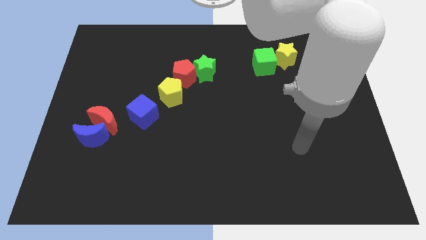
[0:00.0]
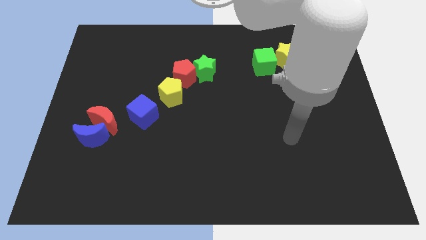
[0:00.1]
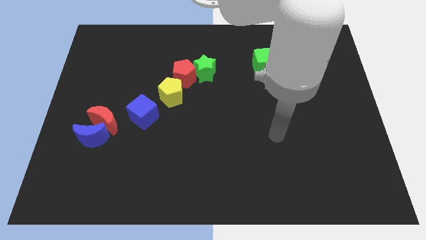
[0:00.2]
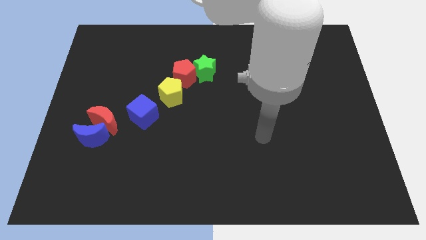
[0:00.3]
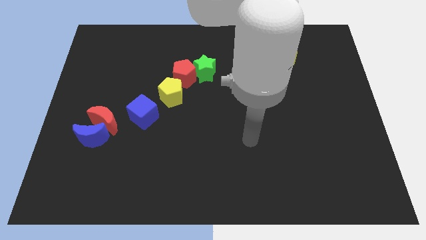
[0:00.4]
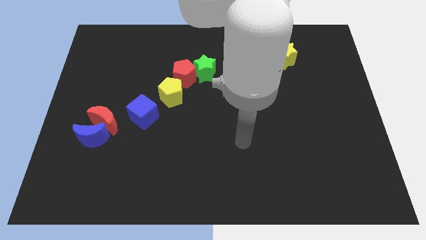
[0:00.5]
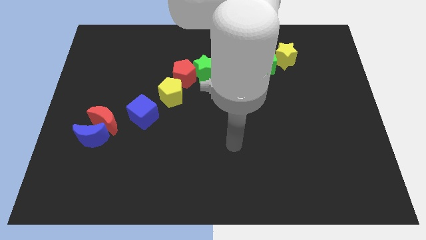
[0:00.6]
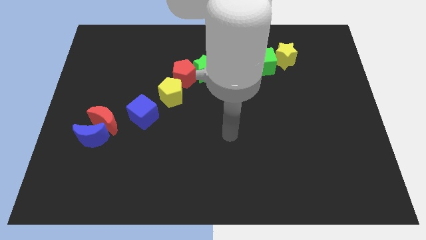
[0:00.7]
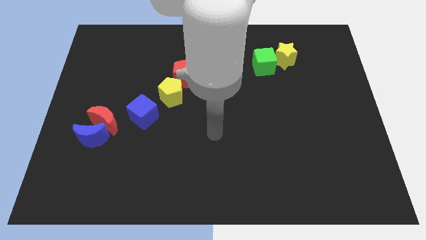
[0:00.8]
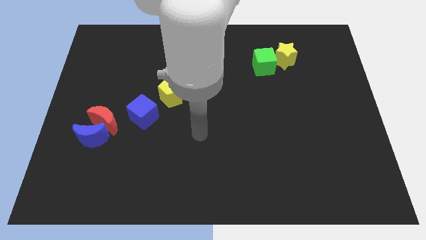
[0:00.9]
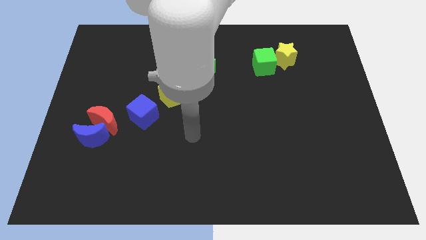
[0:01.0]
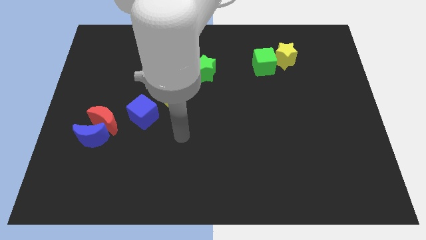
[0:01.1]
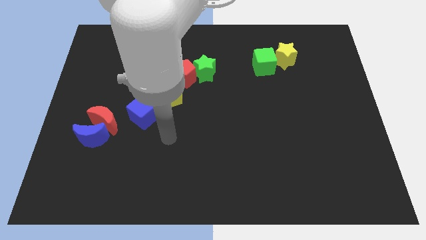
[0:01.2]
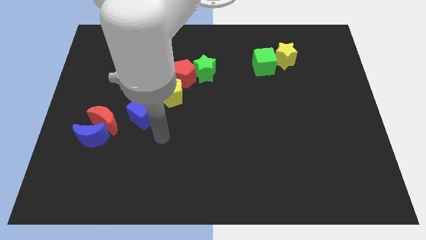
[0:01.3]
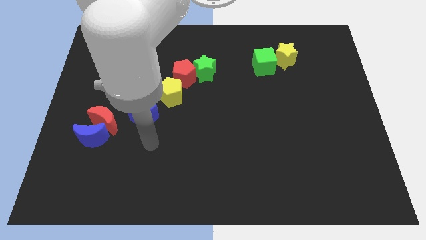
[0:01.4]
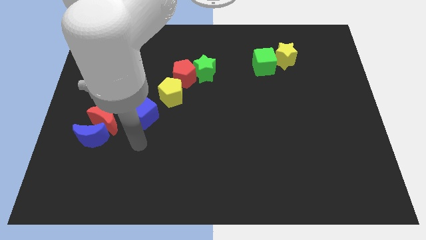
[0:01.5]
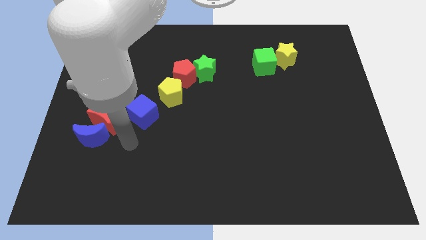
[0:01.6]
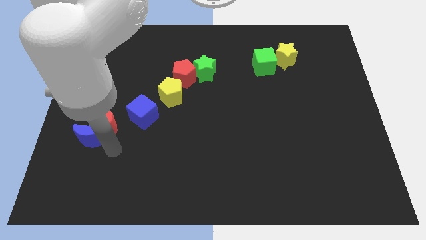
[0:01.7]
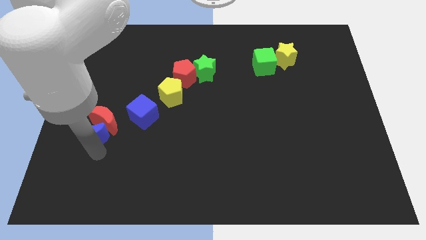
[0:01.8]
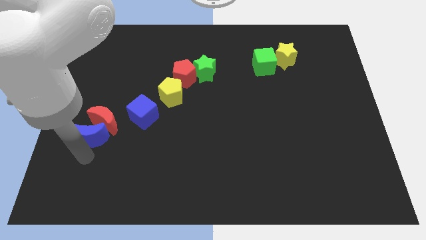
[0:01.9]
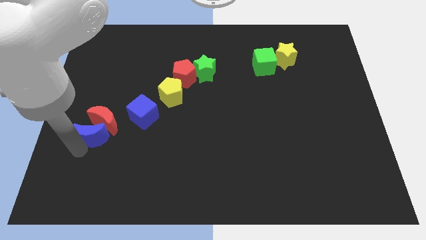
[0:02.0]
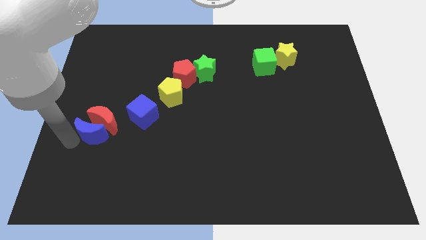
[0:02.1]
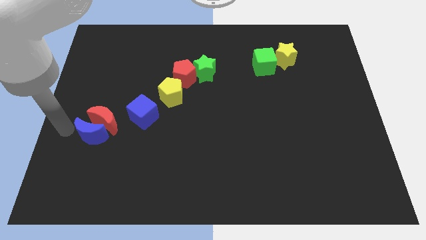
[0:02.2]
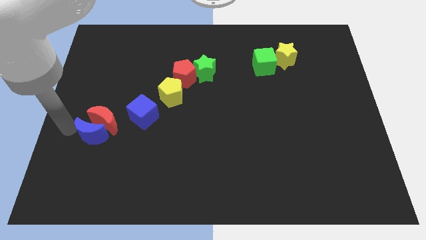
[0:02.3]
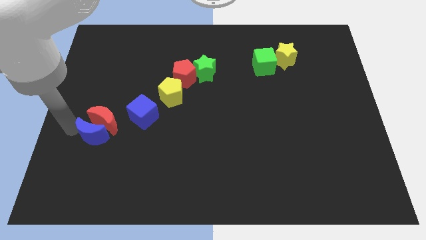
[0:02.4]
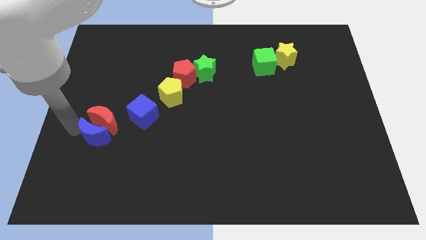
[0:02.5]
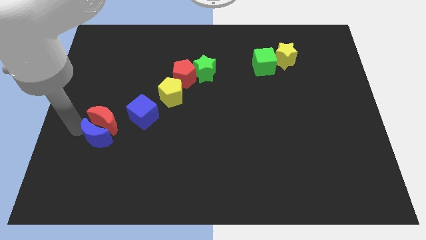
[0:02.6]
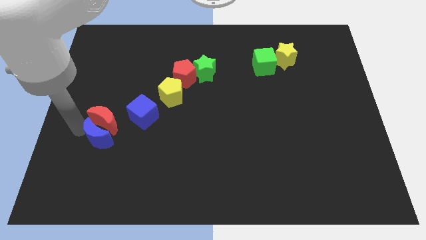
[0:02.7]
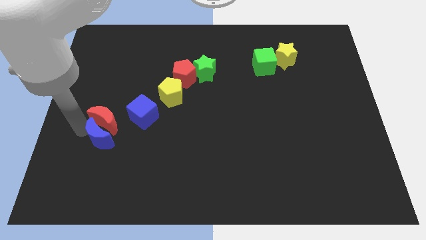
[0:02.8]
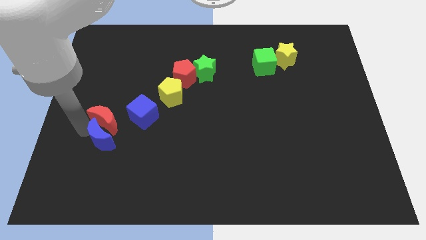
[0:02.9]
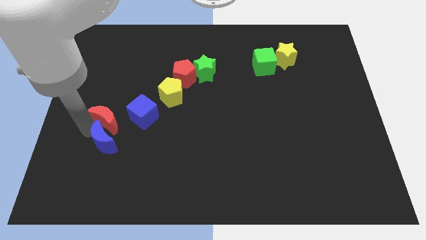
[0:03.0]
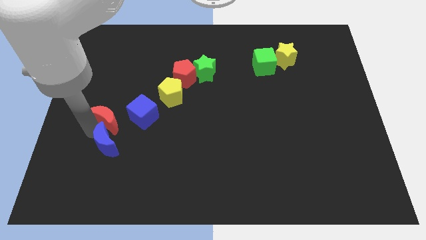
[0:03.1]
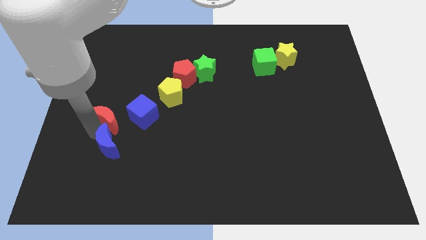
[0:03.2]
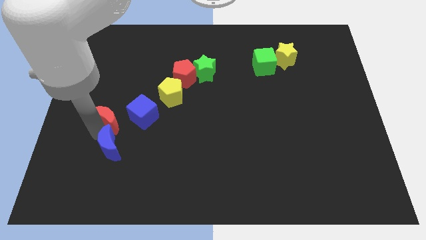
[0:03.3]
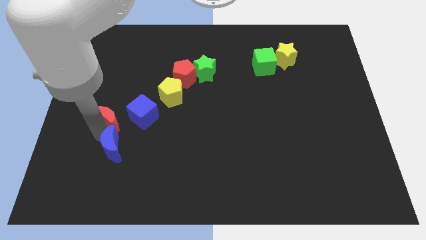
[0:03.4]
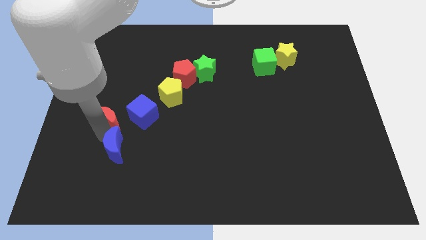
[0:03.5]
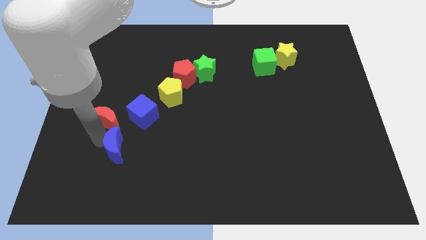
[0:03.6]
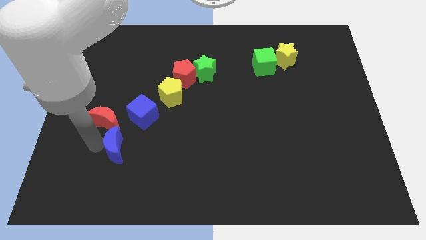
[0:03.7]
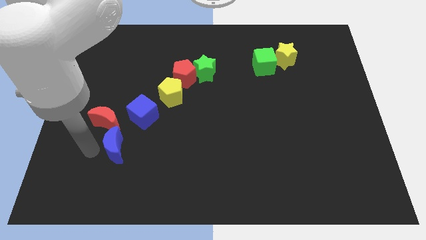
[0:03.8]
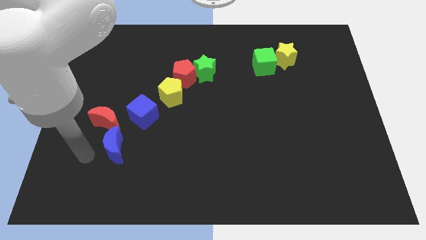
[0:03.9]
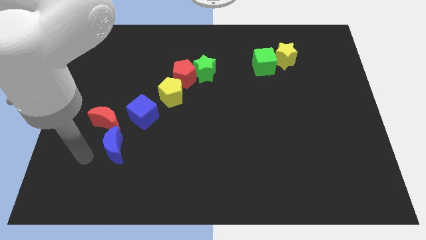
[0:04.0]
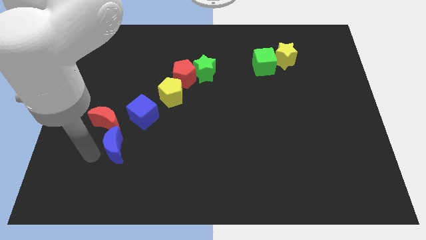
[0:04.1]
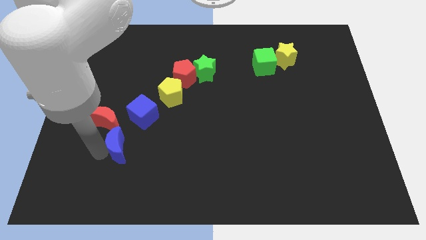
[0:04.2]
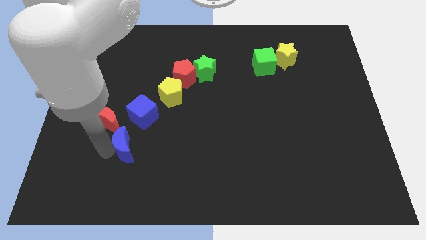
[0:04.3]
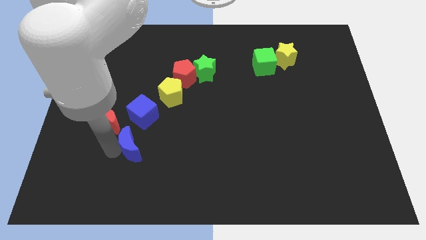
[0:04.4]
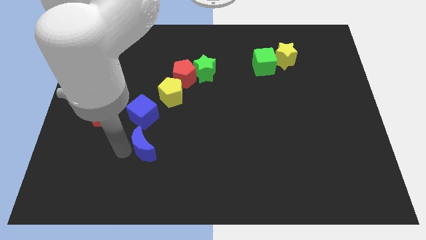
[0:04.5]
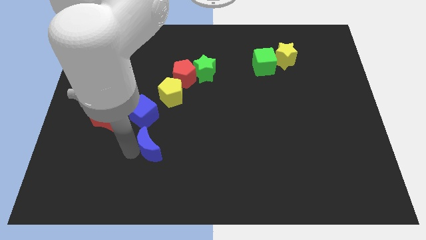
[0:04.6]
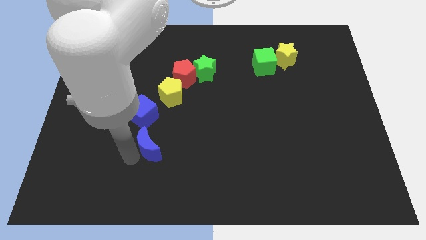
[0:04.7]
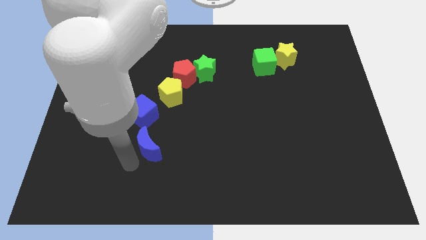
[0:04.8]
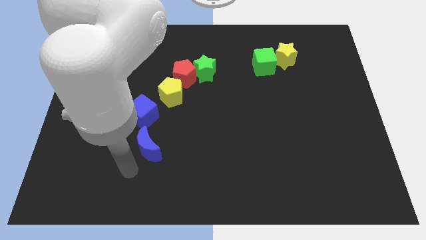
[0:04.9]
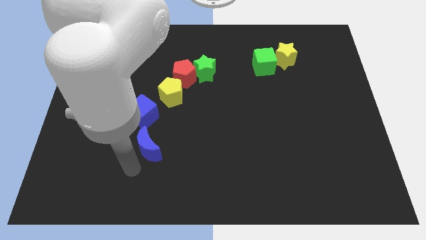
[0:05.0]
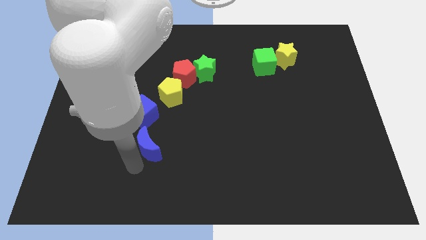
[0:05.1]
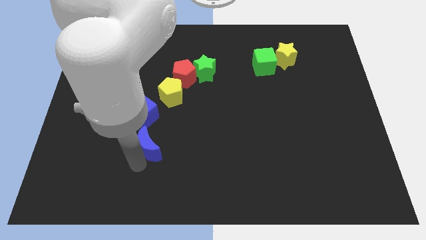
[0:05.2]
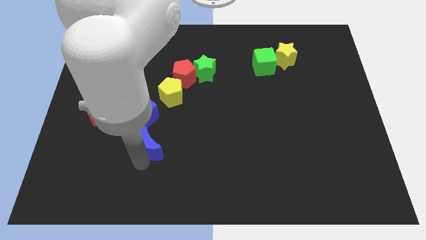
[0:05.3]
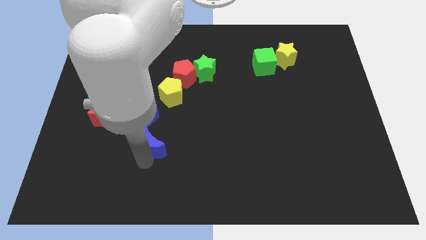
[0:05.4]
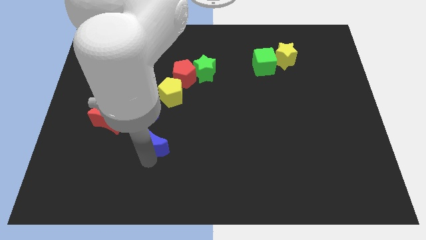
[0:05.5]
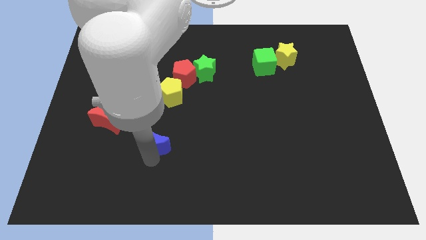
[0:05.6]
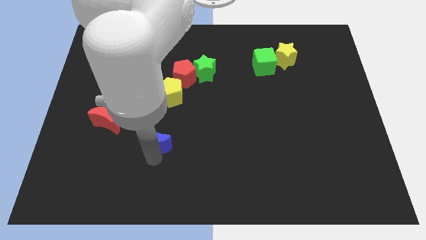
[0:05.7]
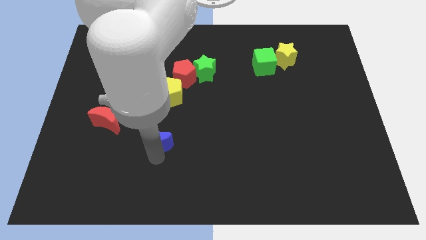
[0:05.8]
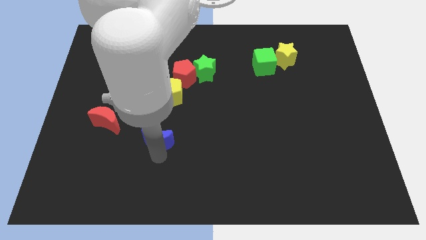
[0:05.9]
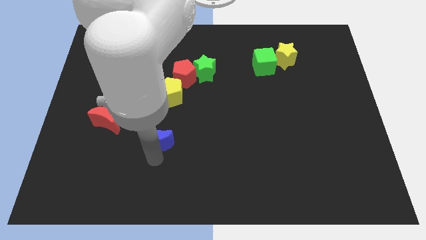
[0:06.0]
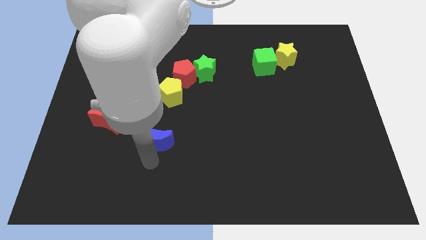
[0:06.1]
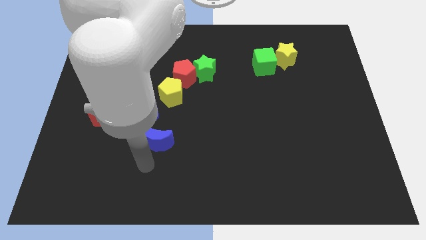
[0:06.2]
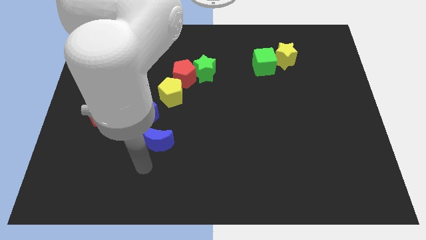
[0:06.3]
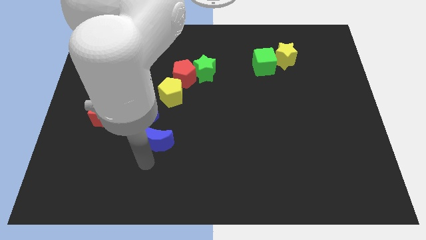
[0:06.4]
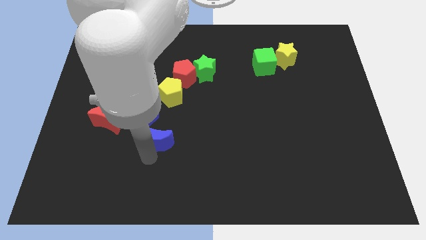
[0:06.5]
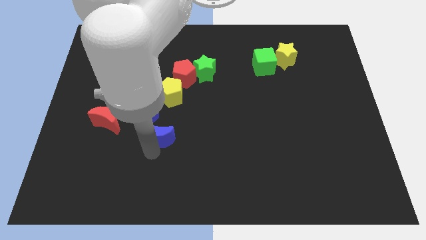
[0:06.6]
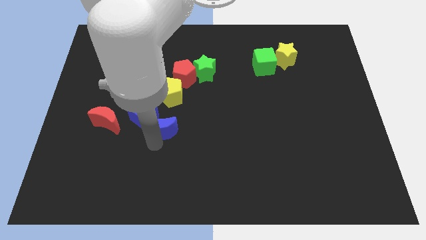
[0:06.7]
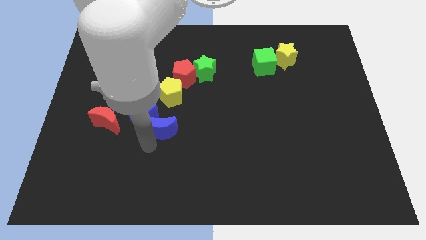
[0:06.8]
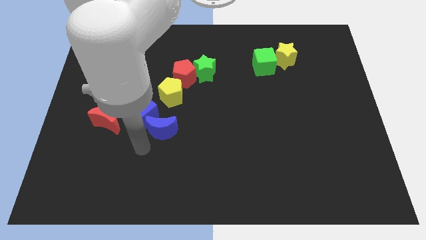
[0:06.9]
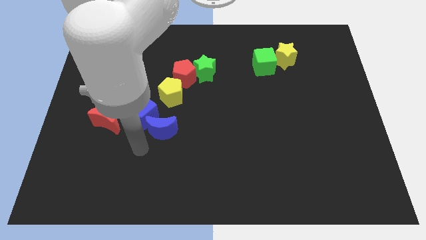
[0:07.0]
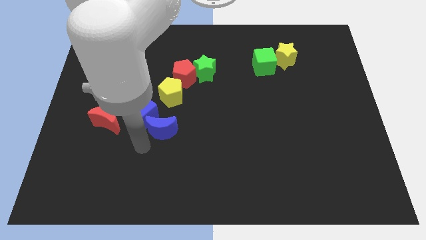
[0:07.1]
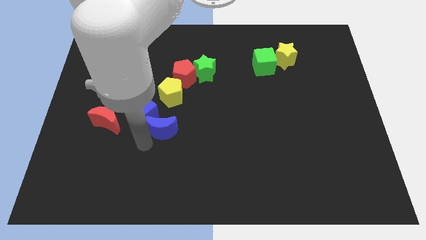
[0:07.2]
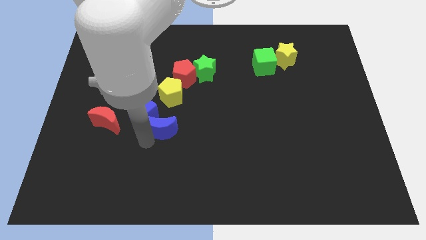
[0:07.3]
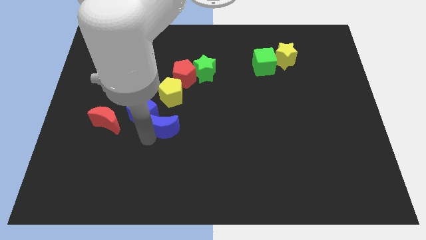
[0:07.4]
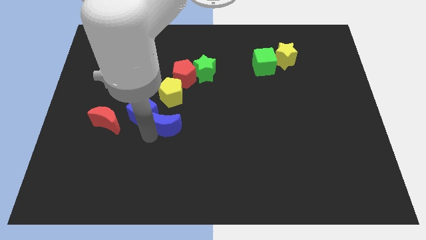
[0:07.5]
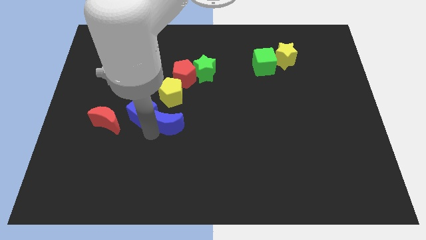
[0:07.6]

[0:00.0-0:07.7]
put the blue moon to the middle
